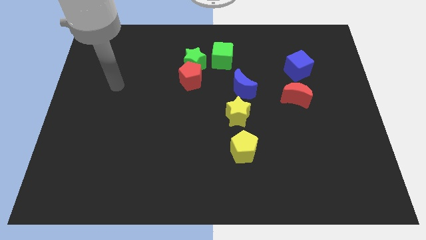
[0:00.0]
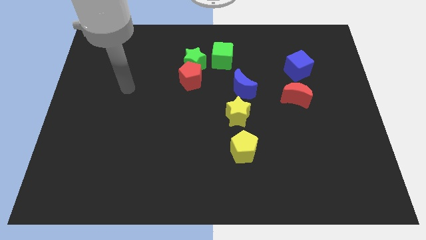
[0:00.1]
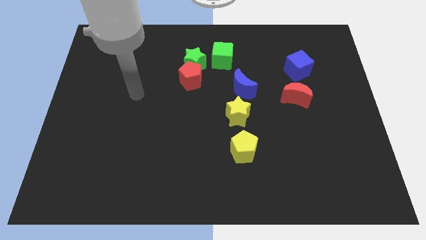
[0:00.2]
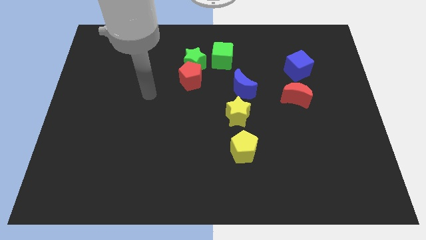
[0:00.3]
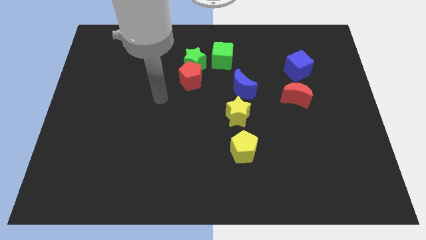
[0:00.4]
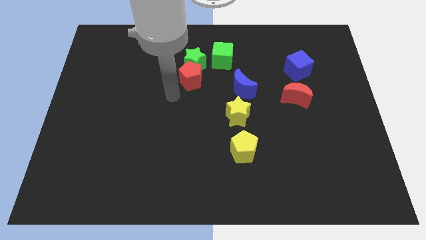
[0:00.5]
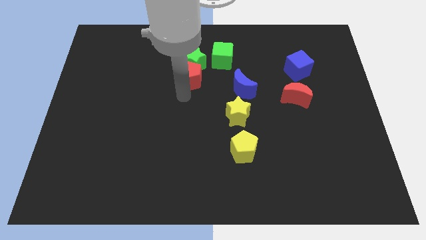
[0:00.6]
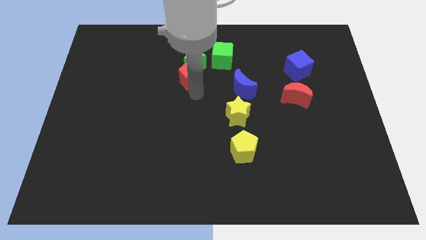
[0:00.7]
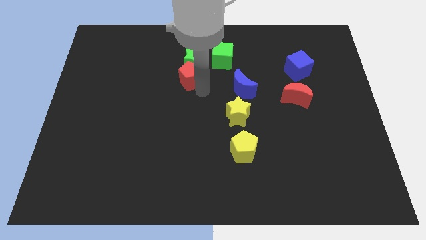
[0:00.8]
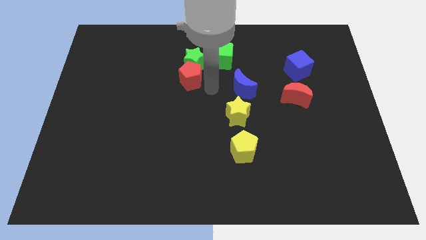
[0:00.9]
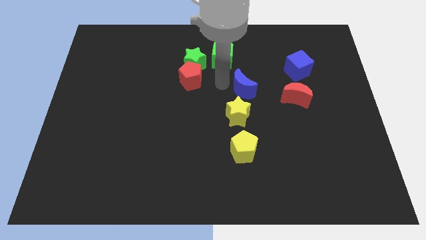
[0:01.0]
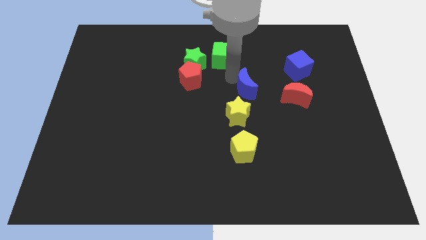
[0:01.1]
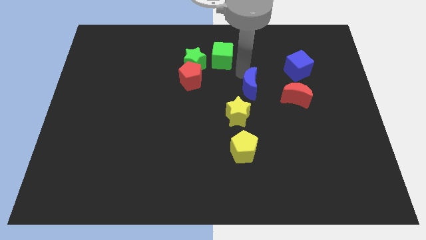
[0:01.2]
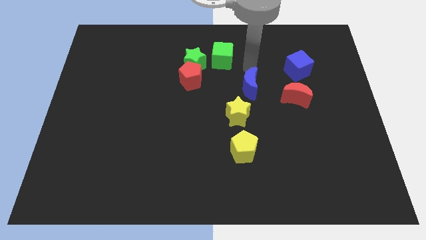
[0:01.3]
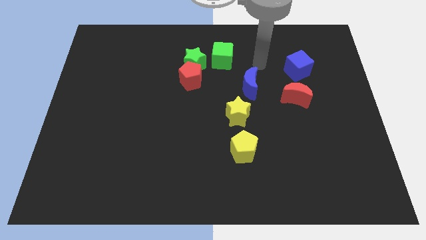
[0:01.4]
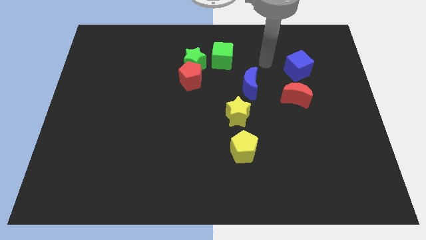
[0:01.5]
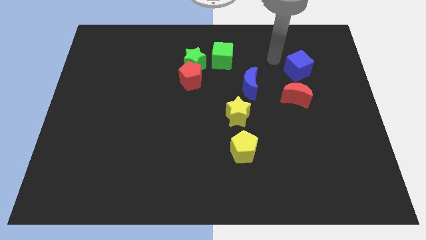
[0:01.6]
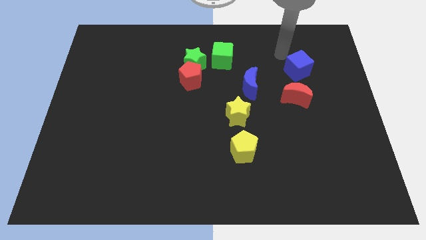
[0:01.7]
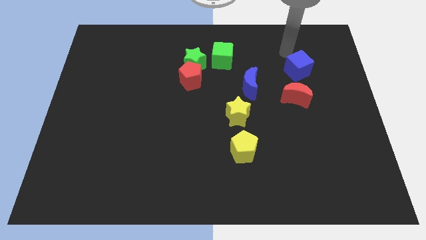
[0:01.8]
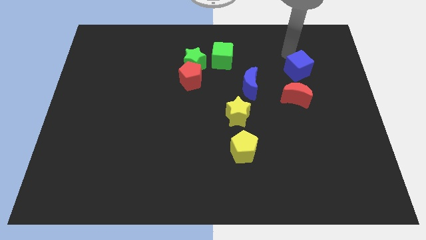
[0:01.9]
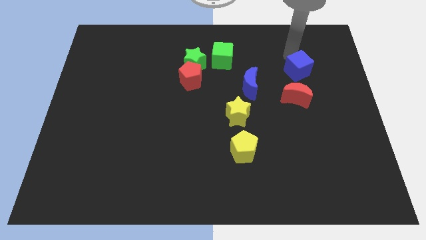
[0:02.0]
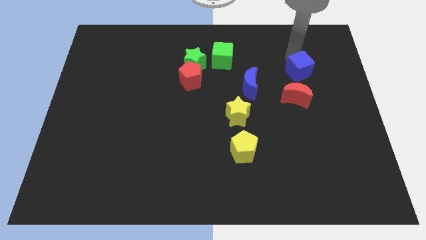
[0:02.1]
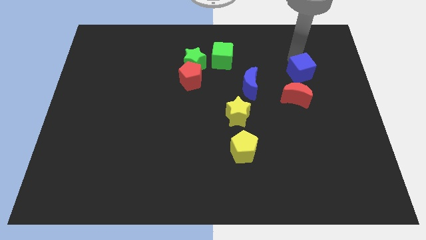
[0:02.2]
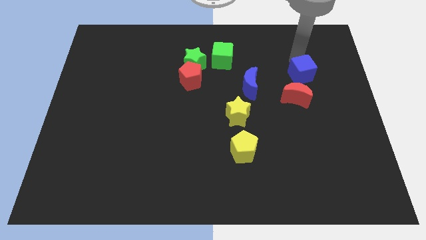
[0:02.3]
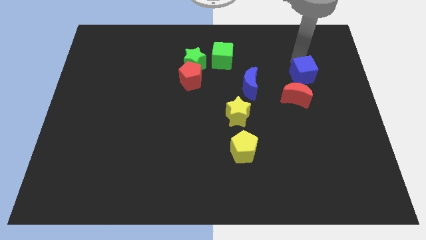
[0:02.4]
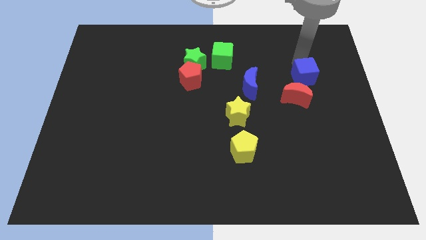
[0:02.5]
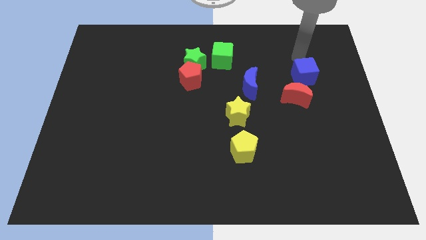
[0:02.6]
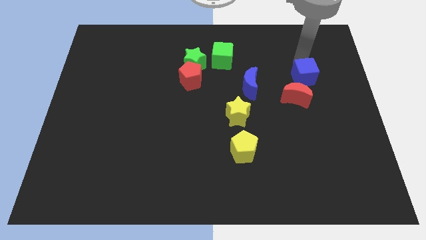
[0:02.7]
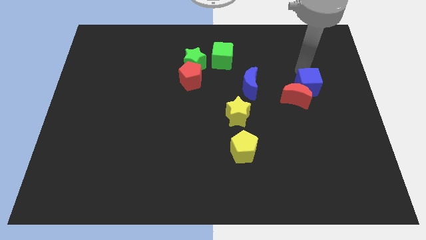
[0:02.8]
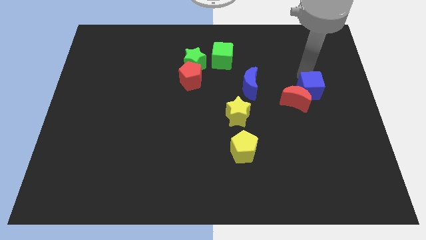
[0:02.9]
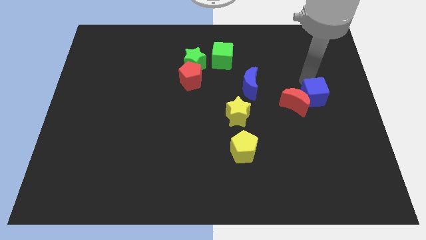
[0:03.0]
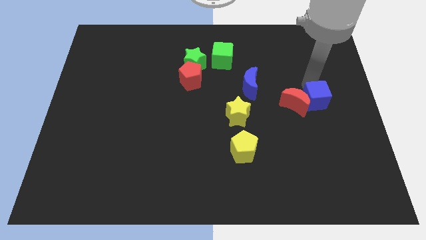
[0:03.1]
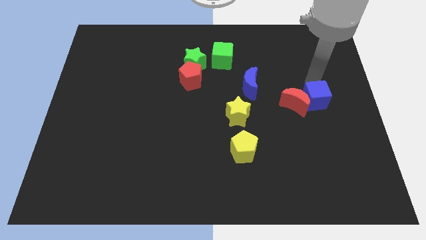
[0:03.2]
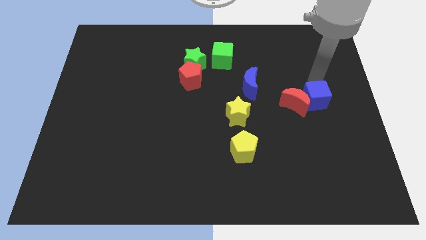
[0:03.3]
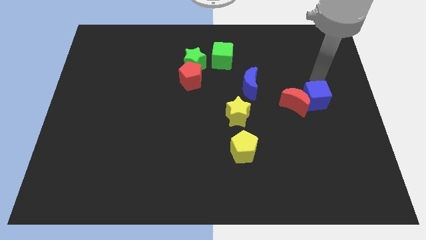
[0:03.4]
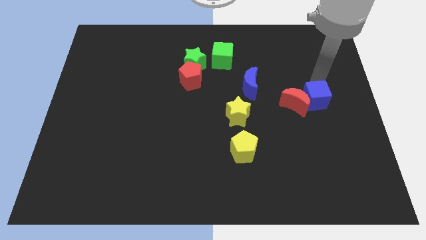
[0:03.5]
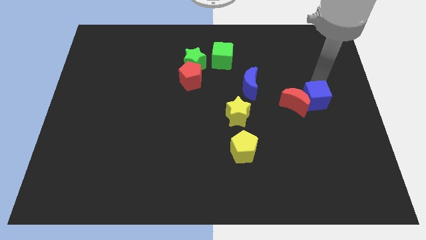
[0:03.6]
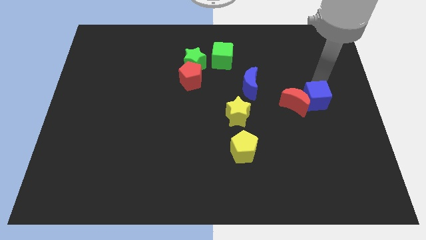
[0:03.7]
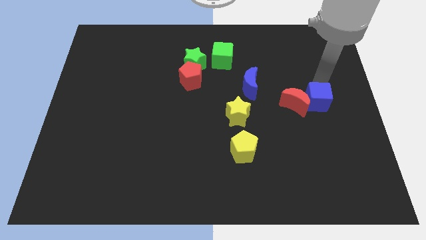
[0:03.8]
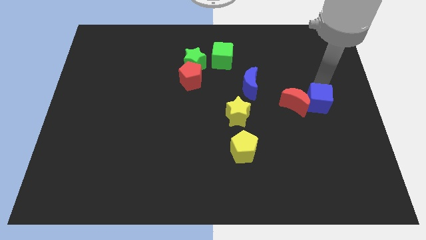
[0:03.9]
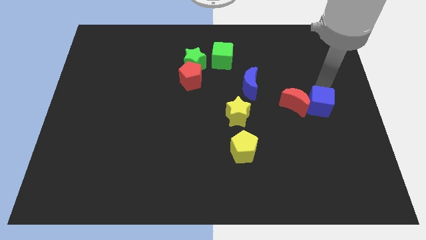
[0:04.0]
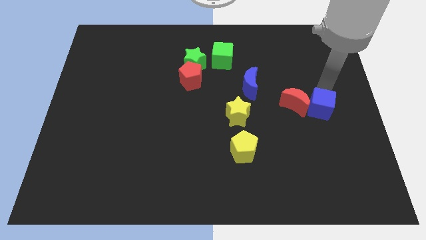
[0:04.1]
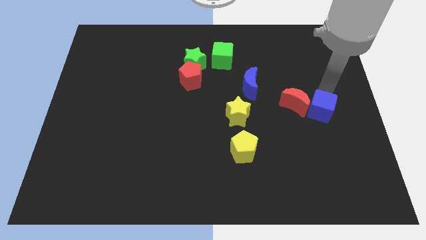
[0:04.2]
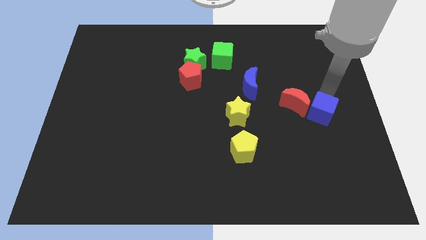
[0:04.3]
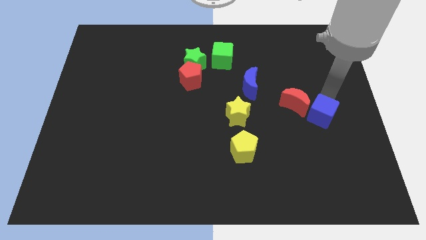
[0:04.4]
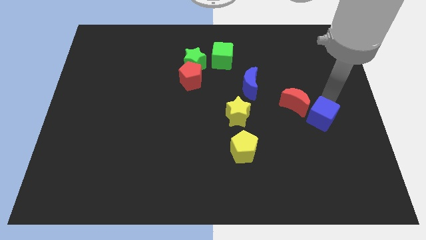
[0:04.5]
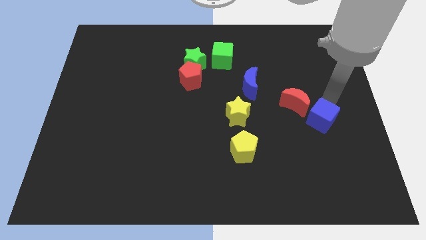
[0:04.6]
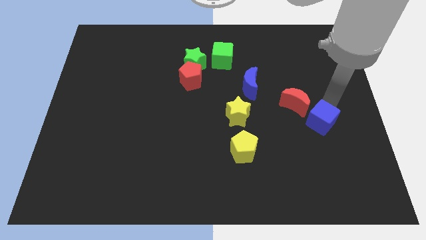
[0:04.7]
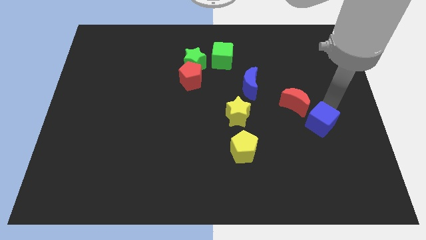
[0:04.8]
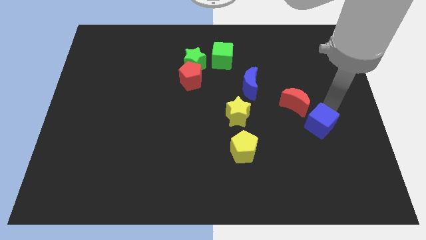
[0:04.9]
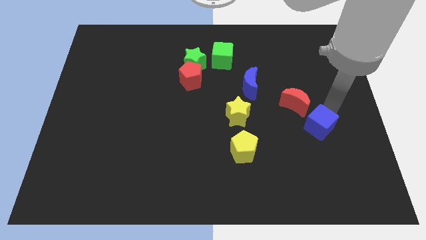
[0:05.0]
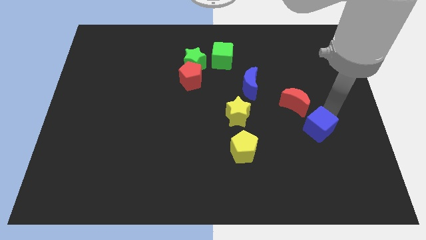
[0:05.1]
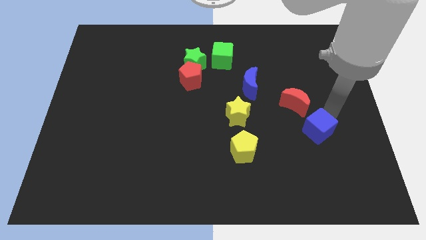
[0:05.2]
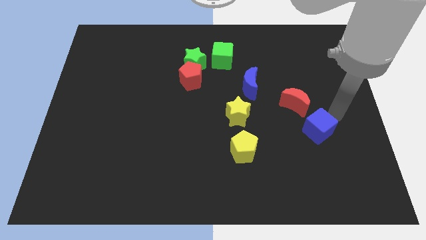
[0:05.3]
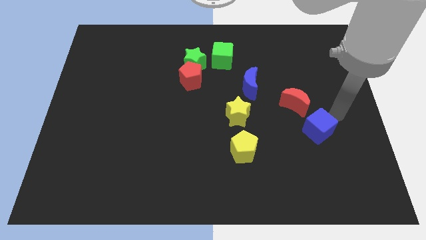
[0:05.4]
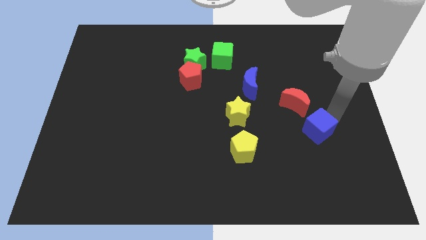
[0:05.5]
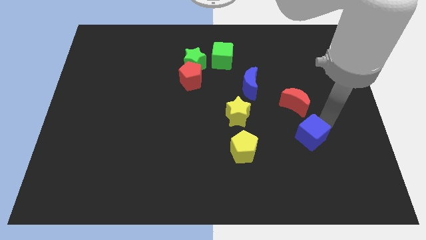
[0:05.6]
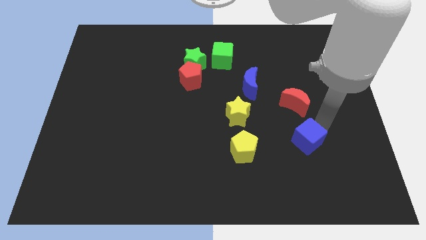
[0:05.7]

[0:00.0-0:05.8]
push the blue cube just right of the yellow pentagon

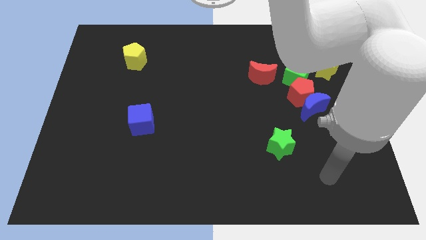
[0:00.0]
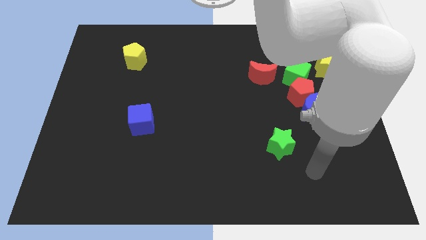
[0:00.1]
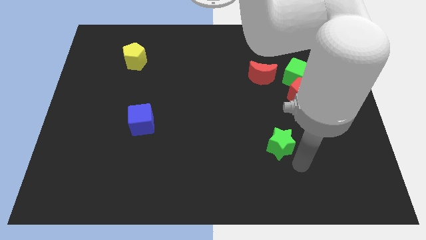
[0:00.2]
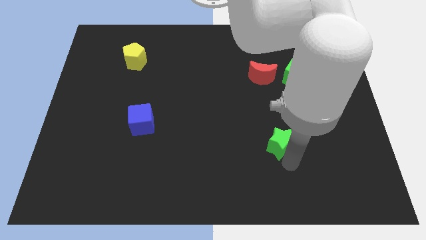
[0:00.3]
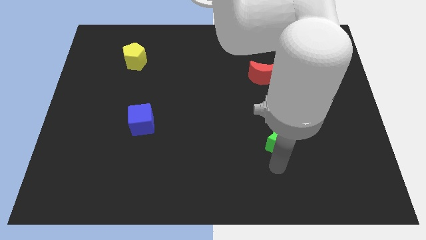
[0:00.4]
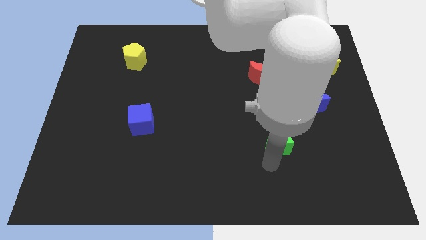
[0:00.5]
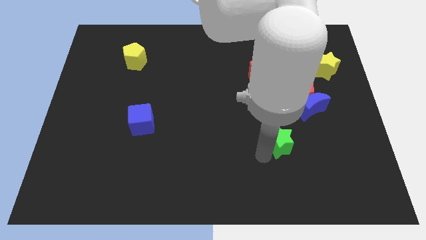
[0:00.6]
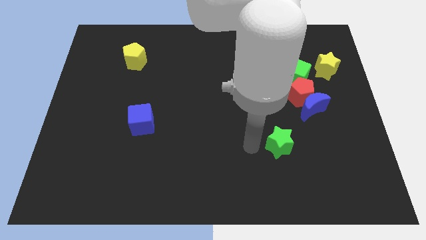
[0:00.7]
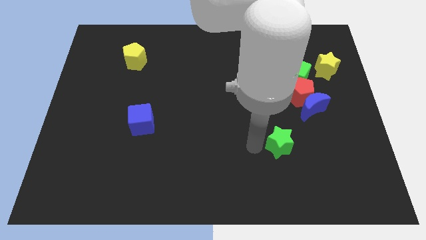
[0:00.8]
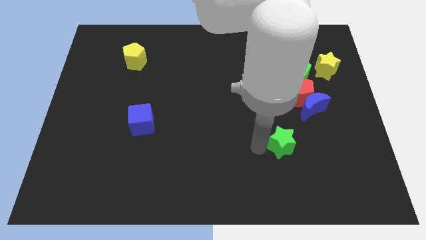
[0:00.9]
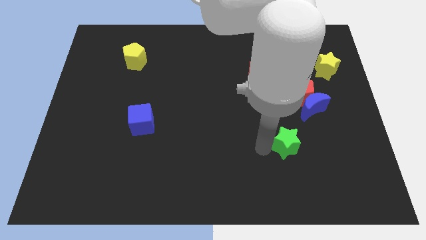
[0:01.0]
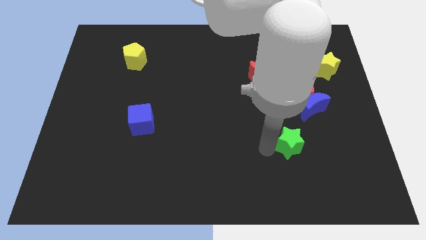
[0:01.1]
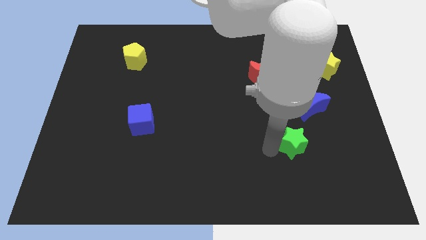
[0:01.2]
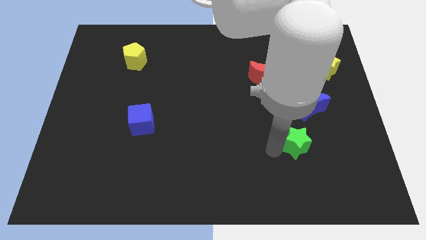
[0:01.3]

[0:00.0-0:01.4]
slide the green star below the blue moon
